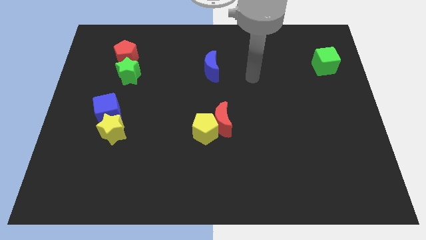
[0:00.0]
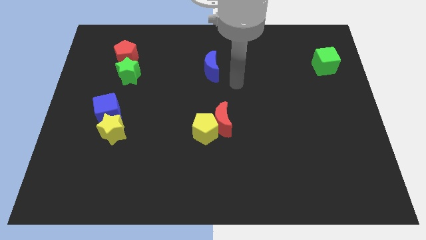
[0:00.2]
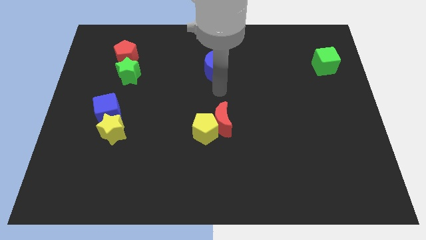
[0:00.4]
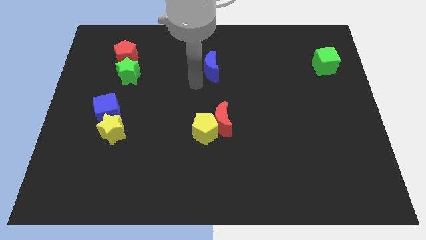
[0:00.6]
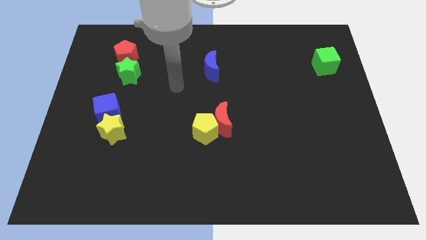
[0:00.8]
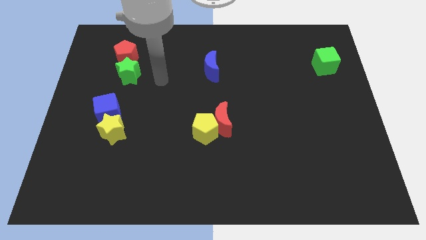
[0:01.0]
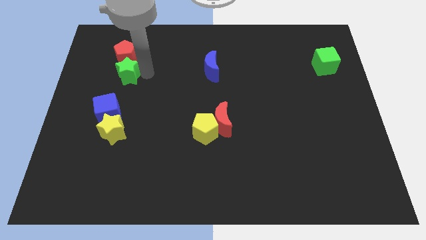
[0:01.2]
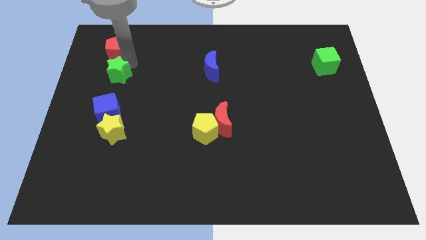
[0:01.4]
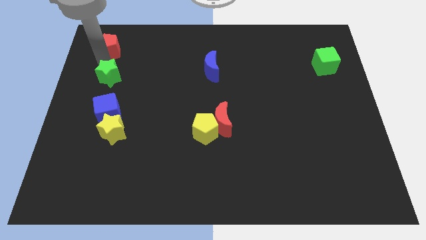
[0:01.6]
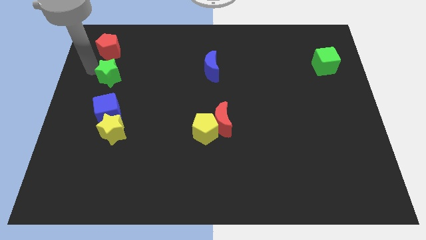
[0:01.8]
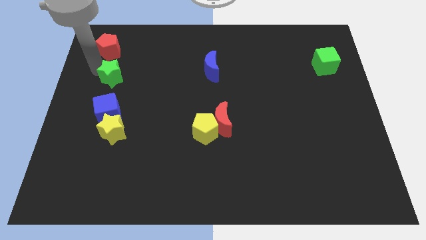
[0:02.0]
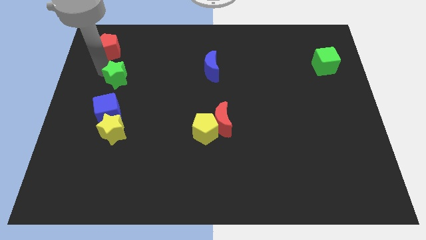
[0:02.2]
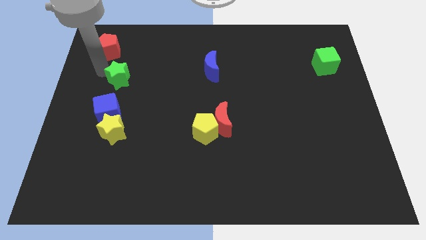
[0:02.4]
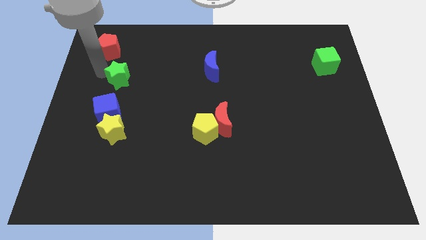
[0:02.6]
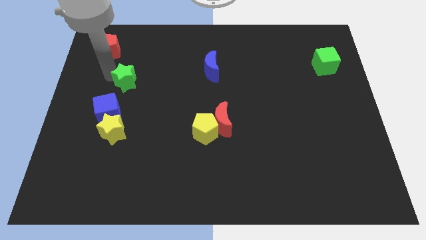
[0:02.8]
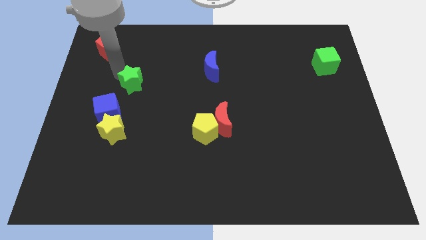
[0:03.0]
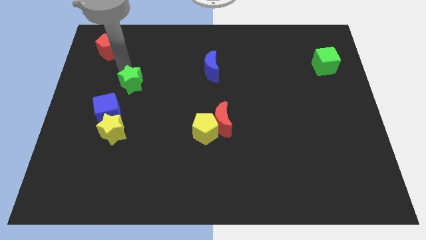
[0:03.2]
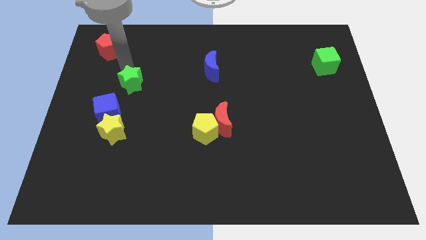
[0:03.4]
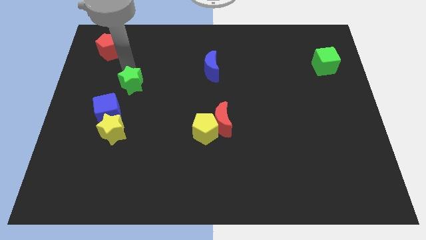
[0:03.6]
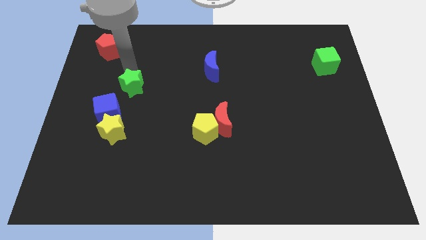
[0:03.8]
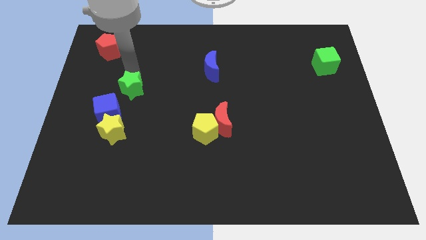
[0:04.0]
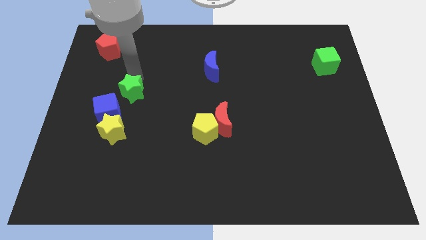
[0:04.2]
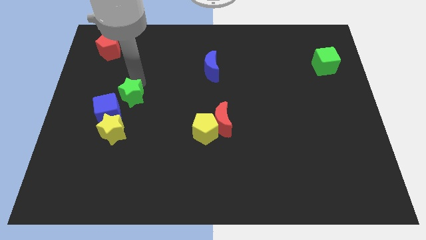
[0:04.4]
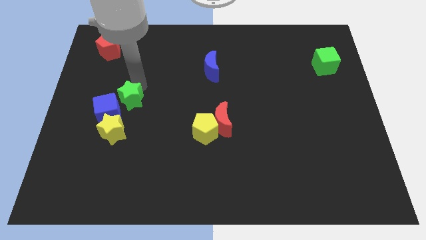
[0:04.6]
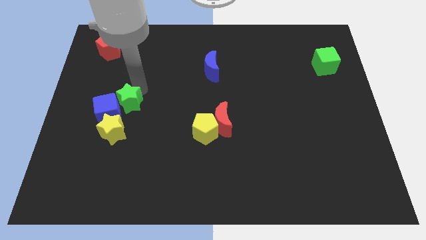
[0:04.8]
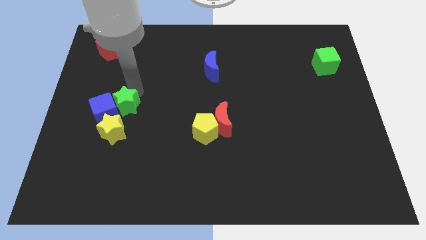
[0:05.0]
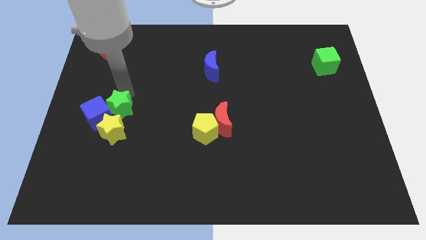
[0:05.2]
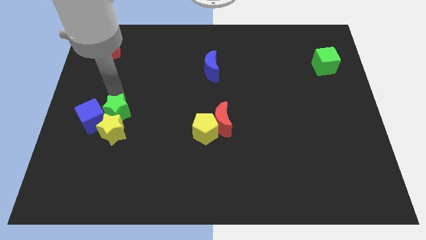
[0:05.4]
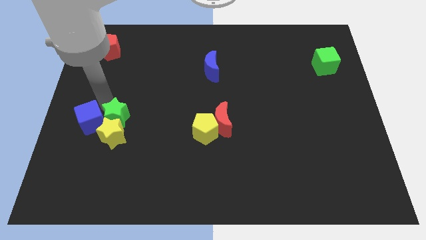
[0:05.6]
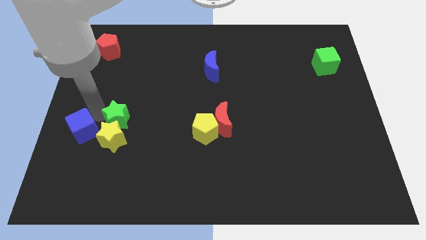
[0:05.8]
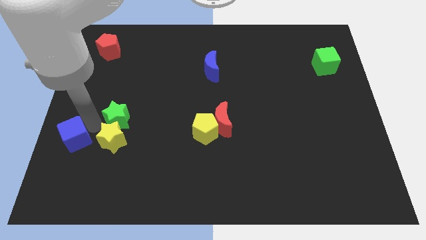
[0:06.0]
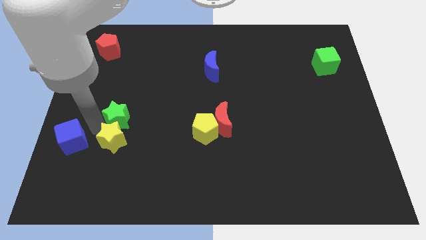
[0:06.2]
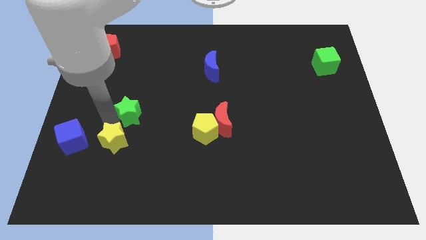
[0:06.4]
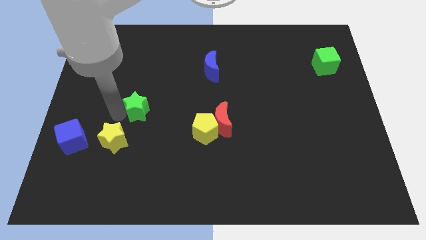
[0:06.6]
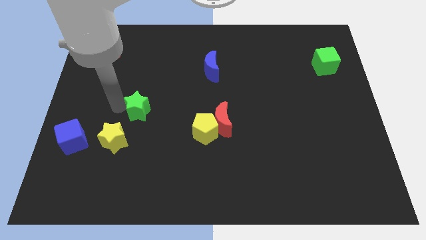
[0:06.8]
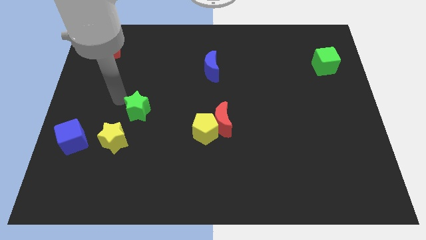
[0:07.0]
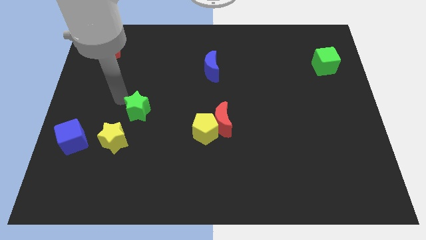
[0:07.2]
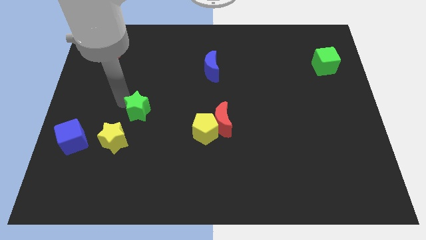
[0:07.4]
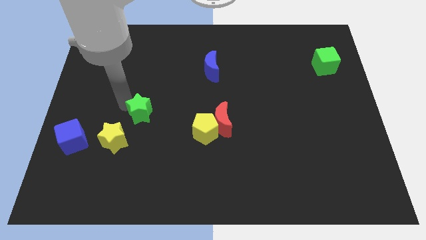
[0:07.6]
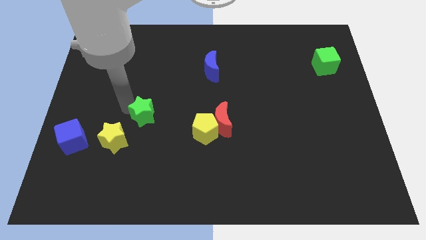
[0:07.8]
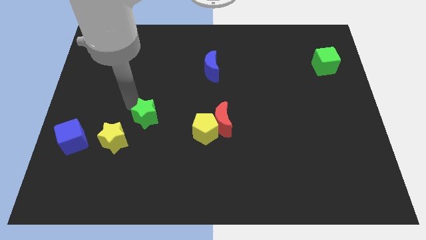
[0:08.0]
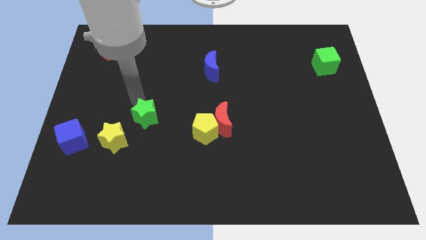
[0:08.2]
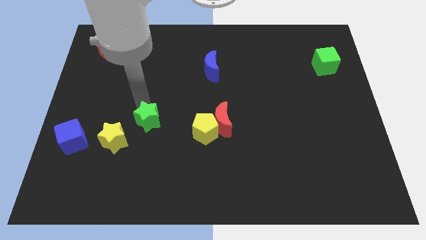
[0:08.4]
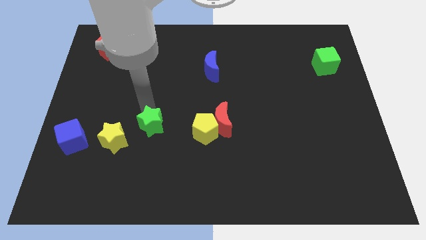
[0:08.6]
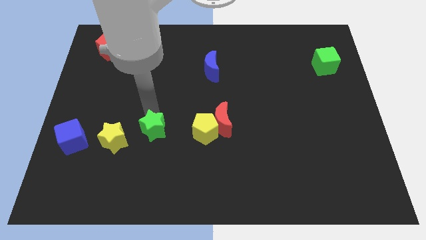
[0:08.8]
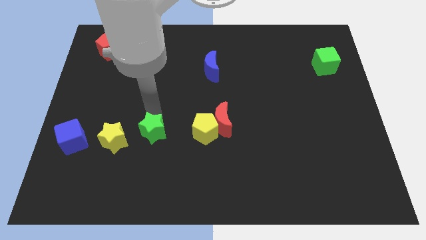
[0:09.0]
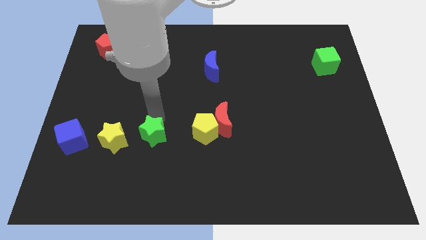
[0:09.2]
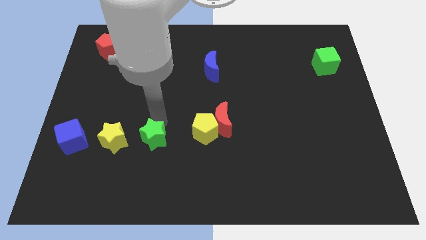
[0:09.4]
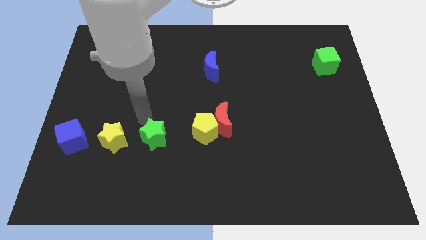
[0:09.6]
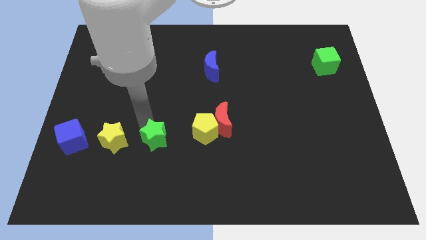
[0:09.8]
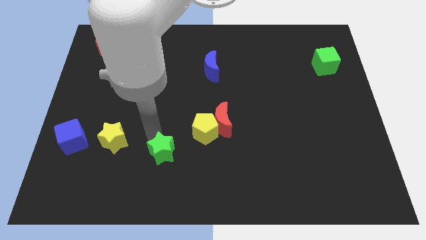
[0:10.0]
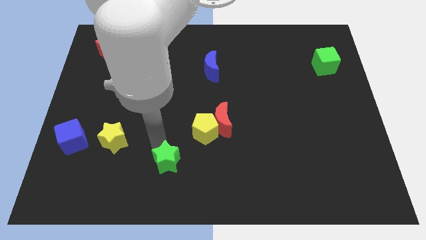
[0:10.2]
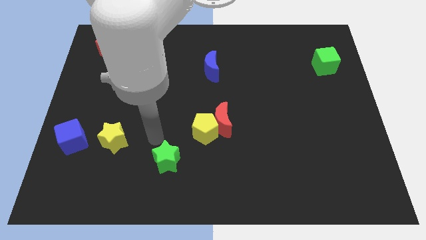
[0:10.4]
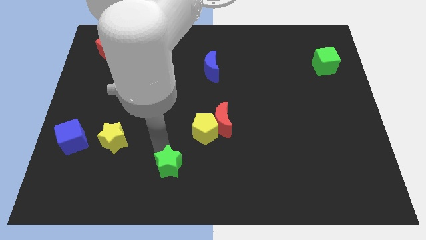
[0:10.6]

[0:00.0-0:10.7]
push the green star to the bottom

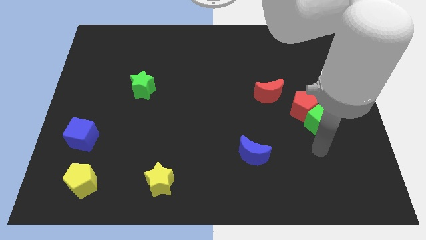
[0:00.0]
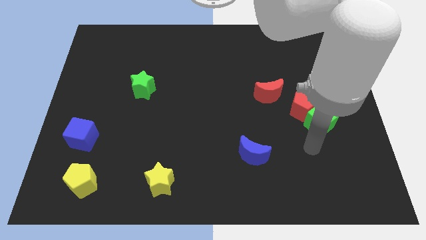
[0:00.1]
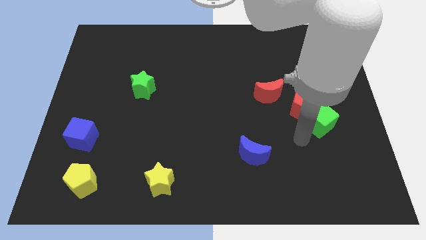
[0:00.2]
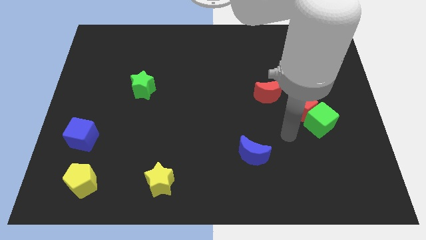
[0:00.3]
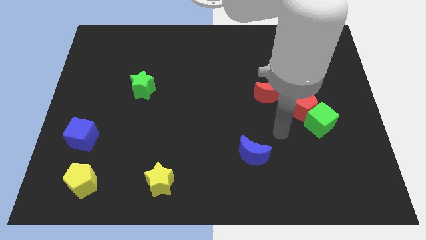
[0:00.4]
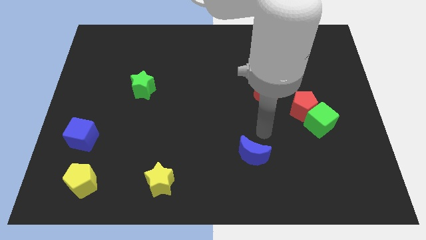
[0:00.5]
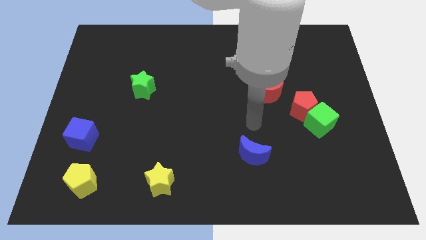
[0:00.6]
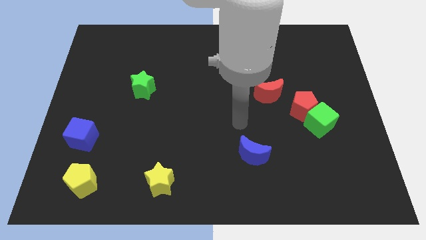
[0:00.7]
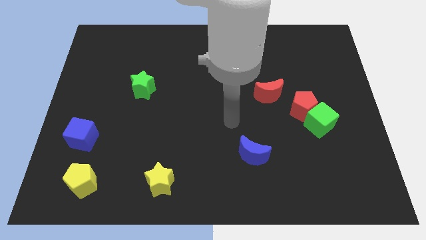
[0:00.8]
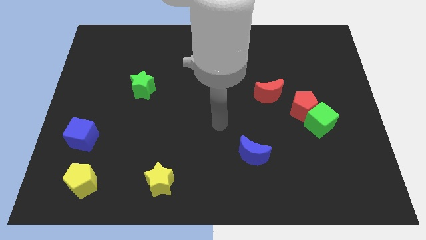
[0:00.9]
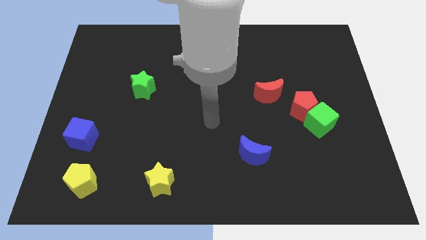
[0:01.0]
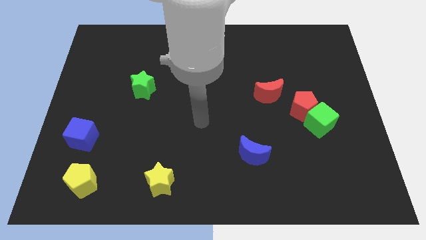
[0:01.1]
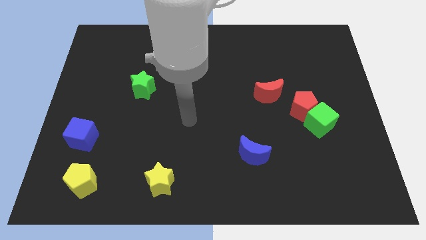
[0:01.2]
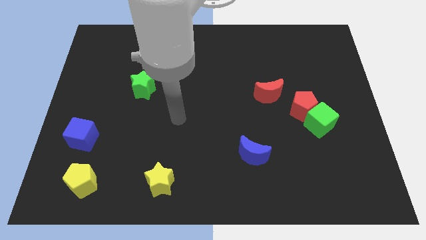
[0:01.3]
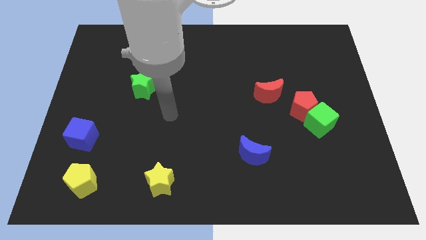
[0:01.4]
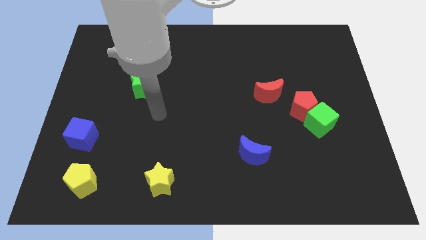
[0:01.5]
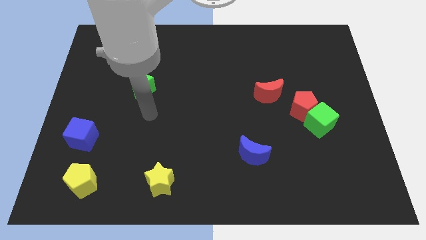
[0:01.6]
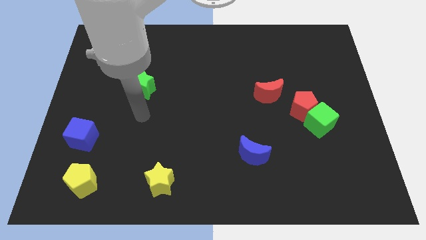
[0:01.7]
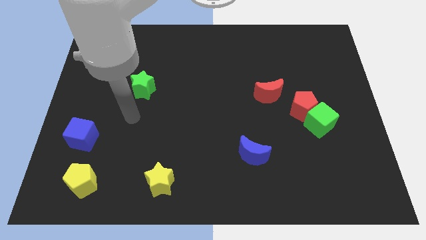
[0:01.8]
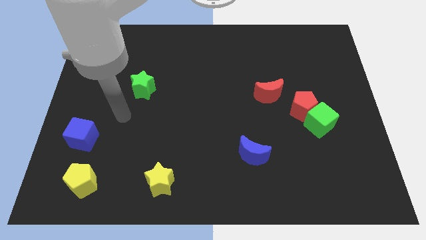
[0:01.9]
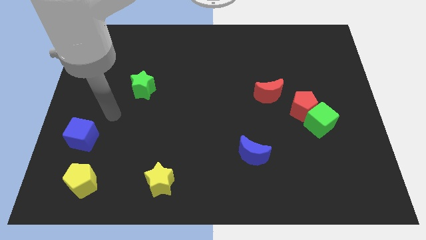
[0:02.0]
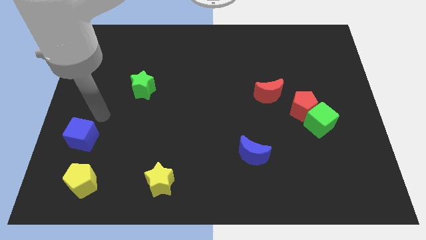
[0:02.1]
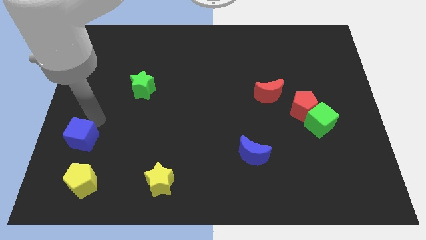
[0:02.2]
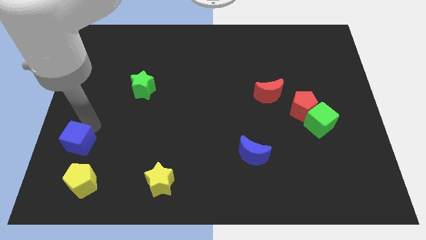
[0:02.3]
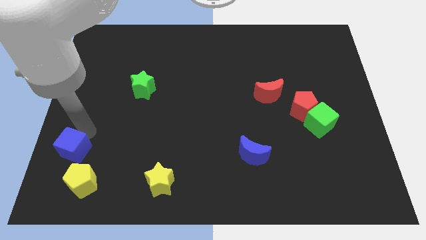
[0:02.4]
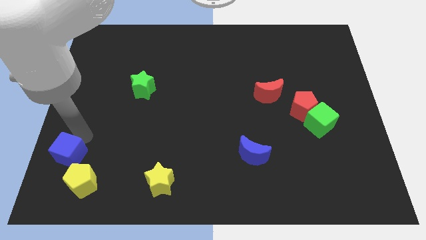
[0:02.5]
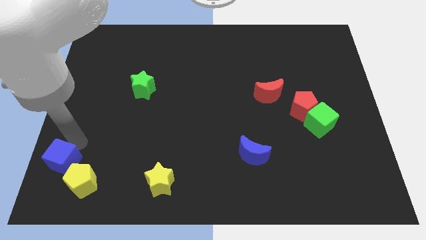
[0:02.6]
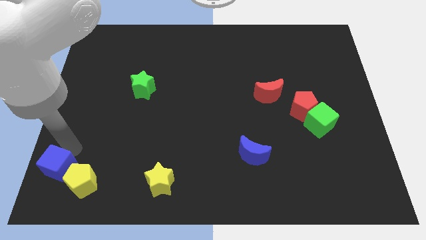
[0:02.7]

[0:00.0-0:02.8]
slide the blue cube to the bottom left corner
